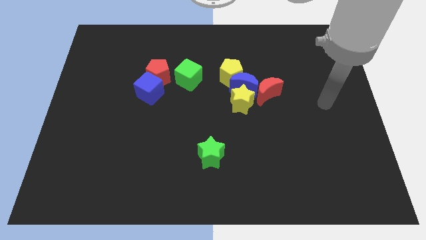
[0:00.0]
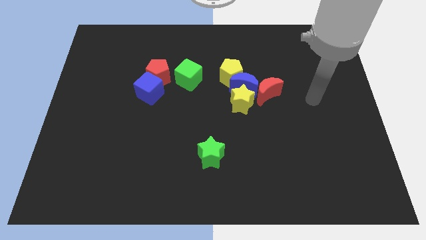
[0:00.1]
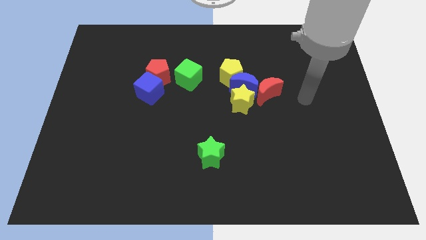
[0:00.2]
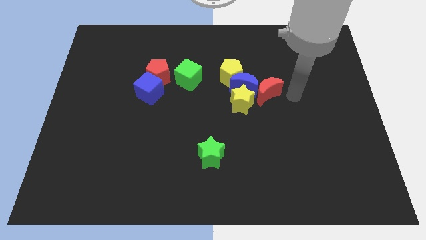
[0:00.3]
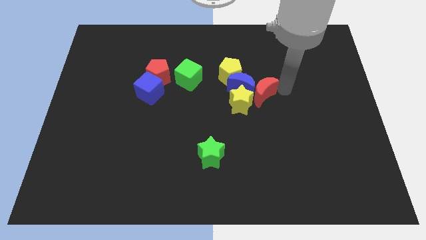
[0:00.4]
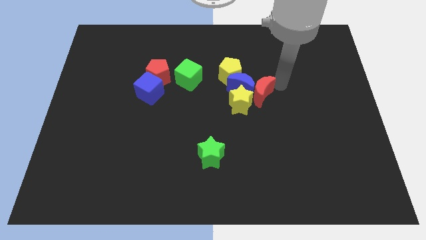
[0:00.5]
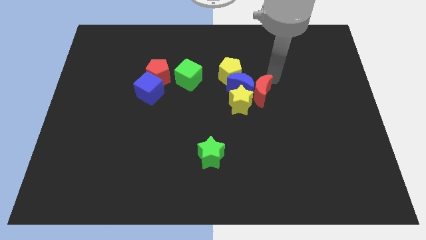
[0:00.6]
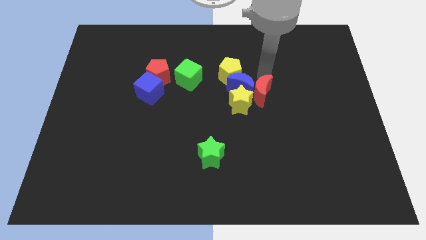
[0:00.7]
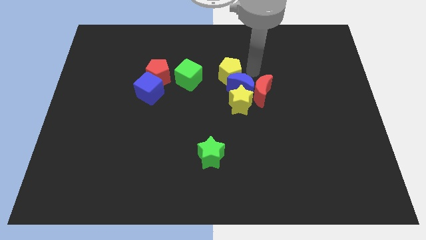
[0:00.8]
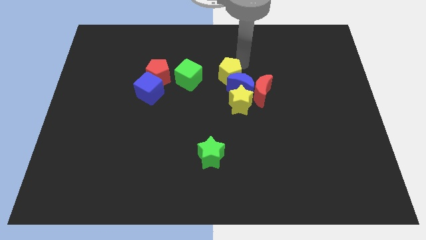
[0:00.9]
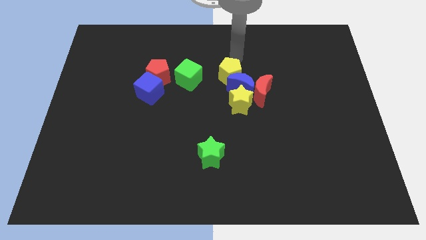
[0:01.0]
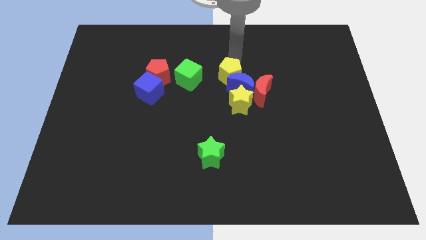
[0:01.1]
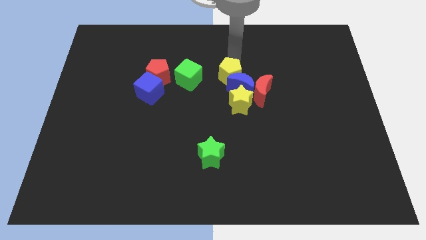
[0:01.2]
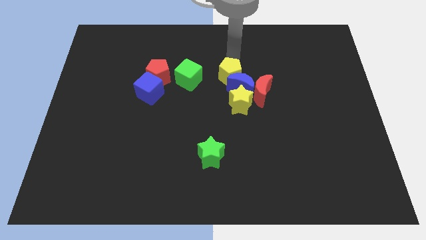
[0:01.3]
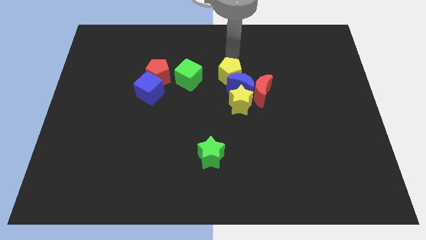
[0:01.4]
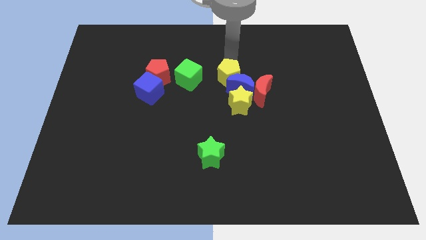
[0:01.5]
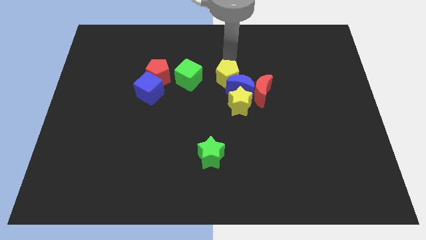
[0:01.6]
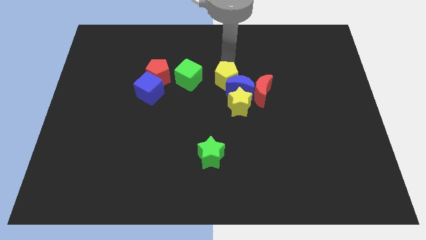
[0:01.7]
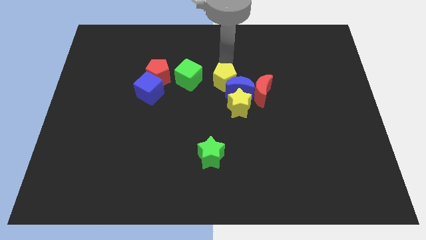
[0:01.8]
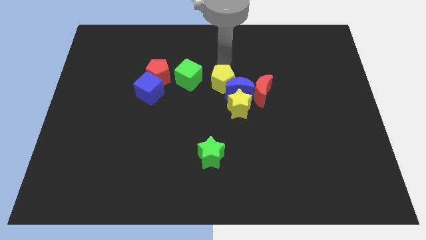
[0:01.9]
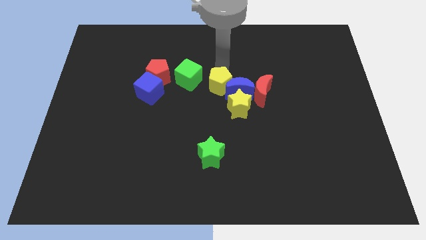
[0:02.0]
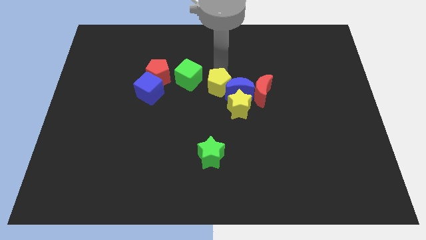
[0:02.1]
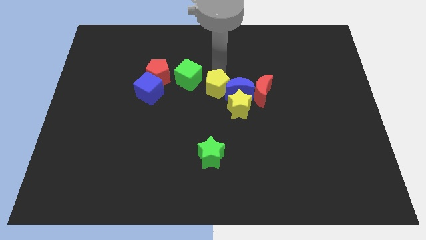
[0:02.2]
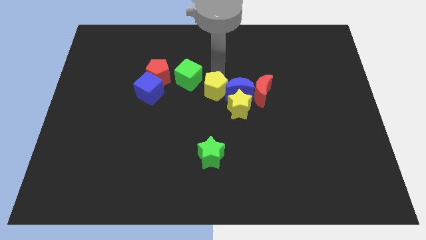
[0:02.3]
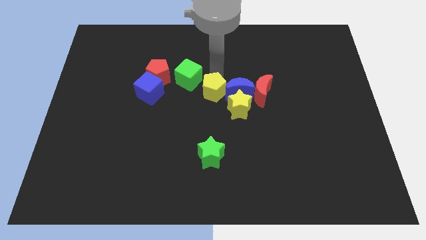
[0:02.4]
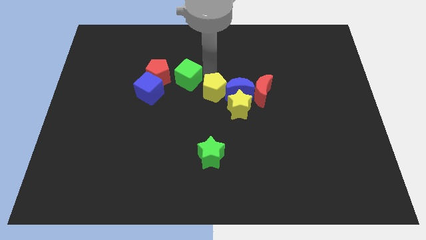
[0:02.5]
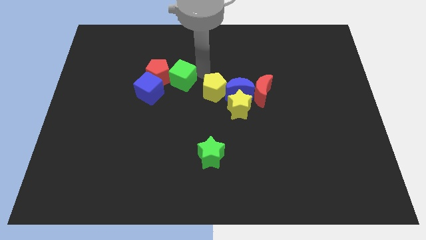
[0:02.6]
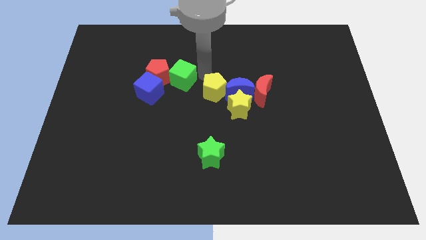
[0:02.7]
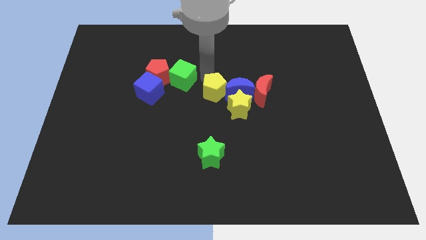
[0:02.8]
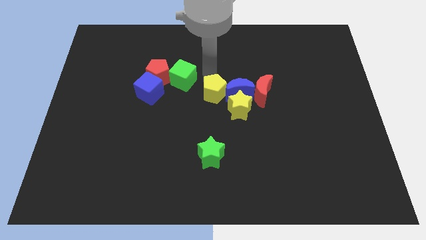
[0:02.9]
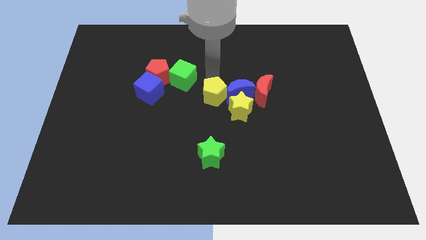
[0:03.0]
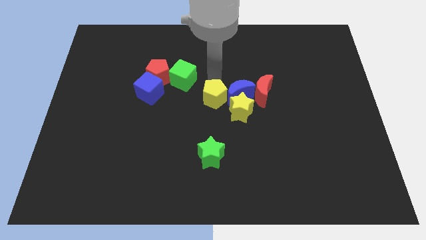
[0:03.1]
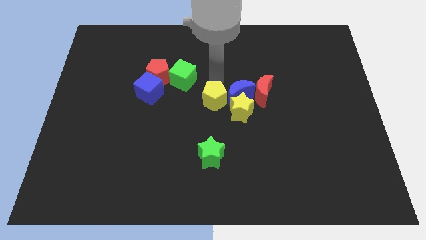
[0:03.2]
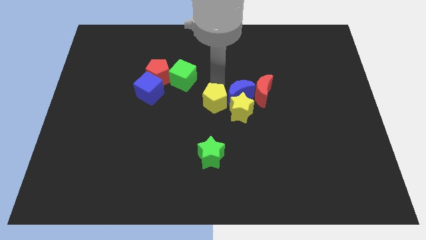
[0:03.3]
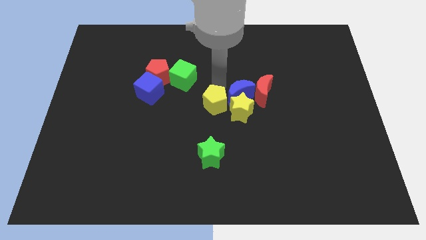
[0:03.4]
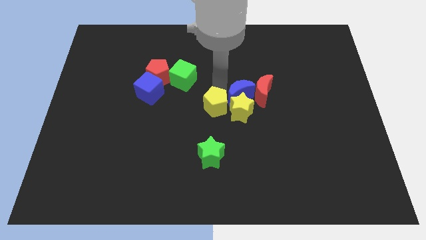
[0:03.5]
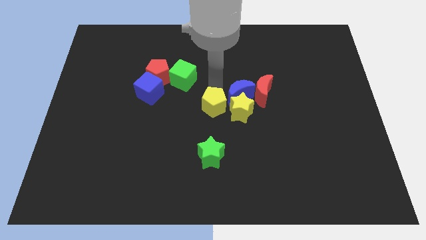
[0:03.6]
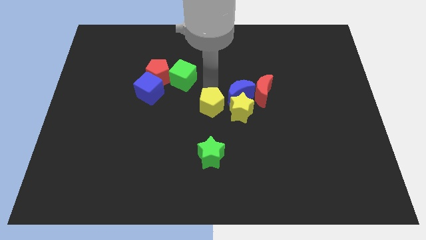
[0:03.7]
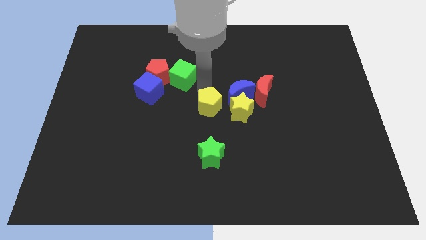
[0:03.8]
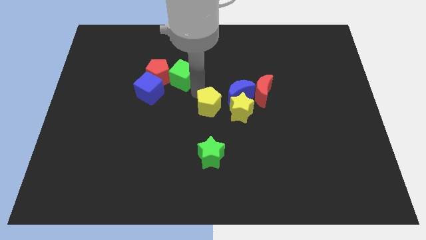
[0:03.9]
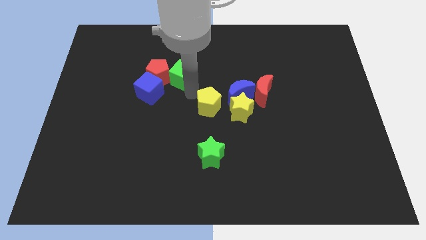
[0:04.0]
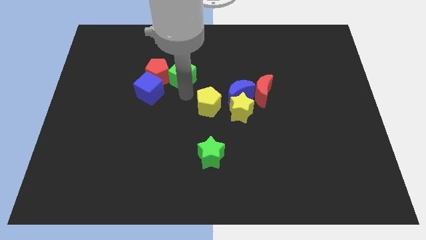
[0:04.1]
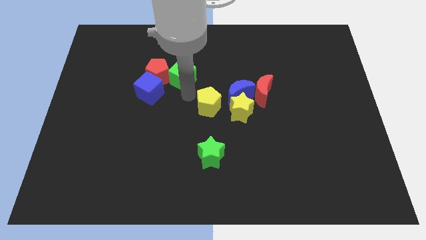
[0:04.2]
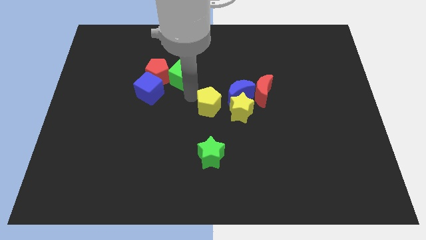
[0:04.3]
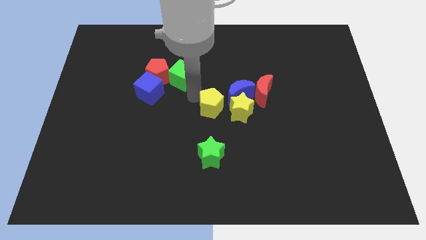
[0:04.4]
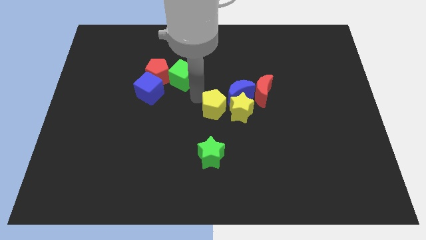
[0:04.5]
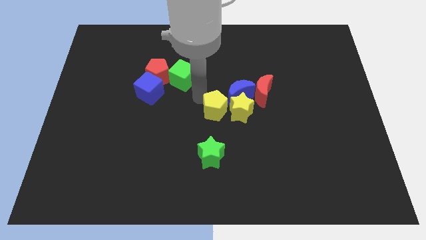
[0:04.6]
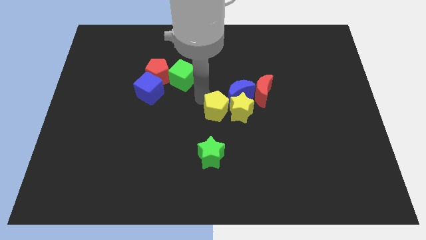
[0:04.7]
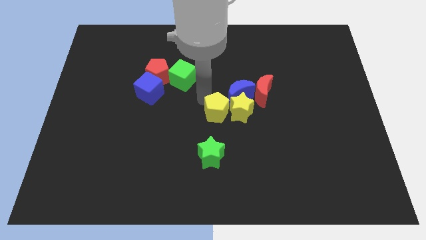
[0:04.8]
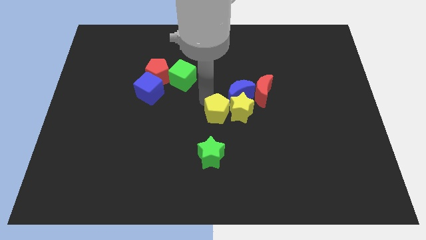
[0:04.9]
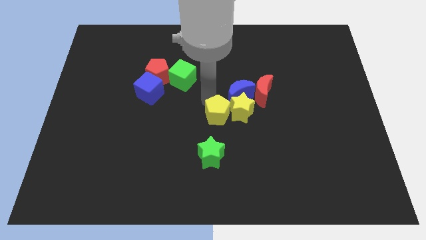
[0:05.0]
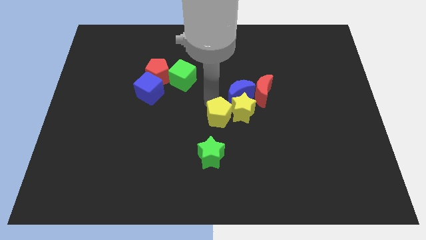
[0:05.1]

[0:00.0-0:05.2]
slide the yellow pentagon below the blue moon

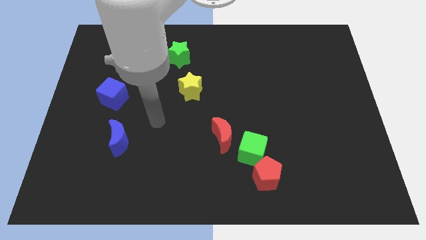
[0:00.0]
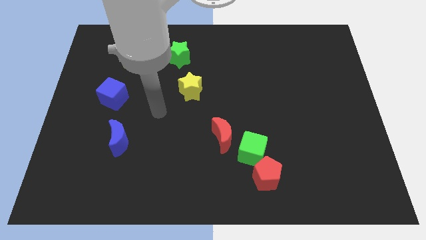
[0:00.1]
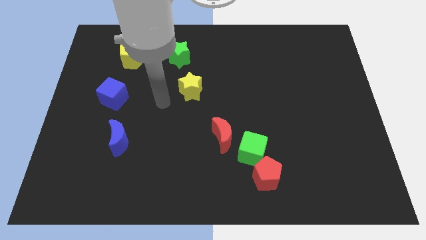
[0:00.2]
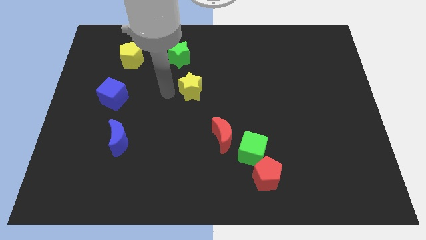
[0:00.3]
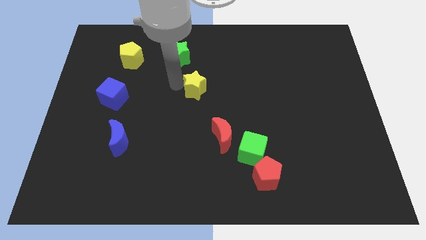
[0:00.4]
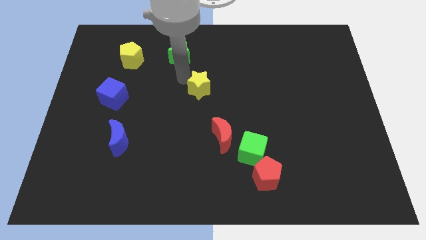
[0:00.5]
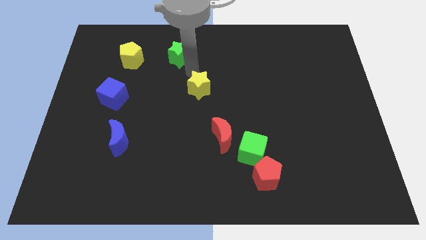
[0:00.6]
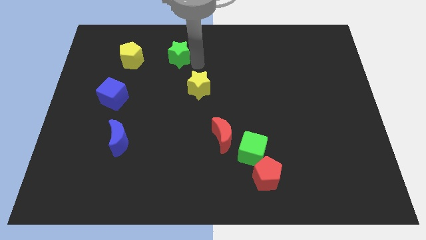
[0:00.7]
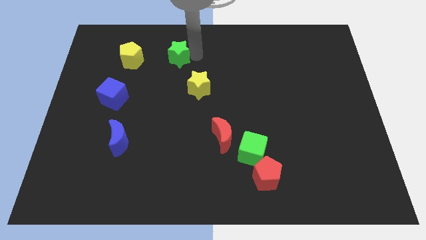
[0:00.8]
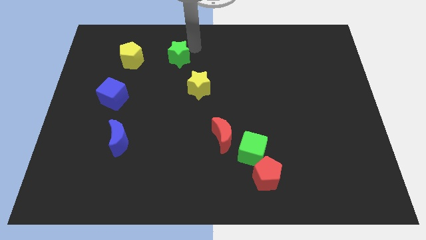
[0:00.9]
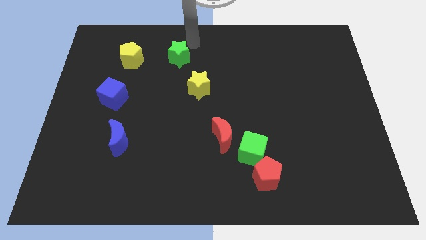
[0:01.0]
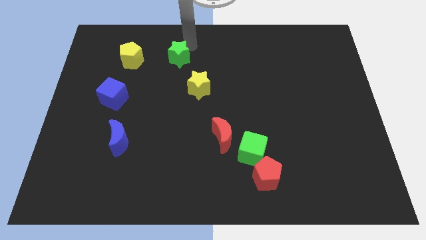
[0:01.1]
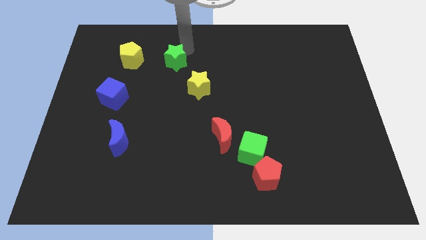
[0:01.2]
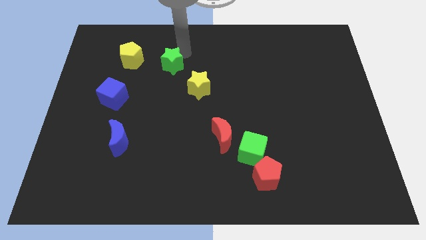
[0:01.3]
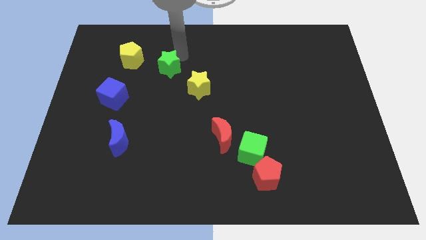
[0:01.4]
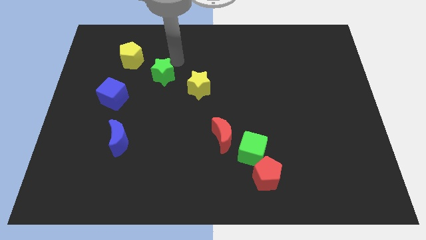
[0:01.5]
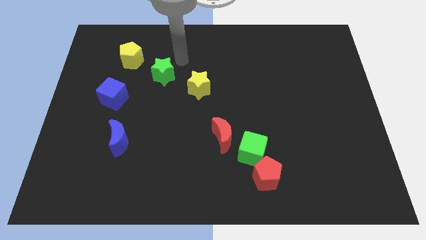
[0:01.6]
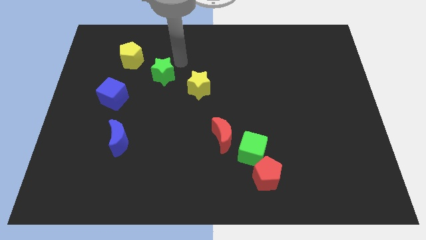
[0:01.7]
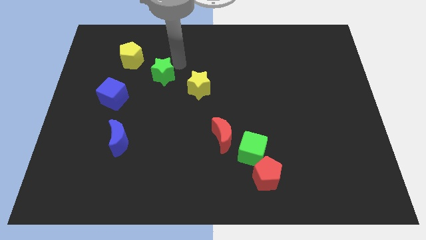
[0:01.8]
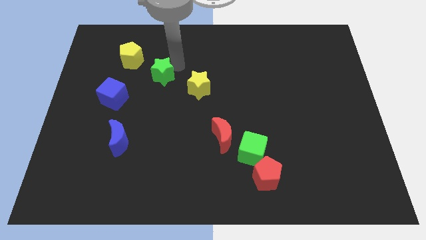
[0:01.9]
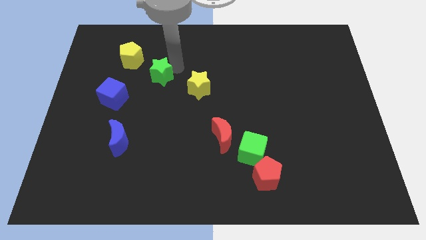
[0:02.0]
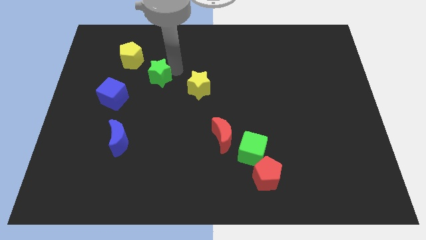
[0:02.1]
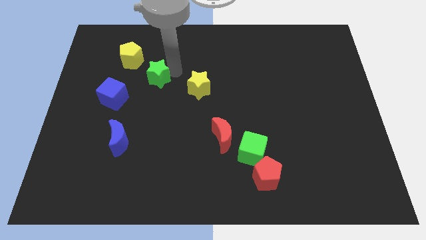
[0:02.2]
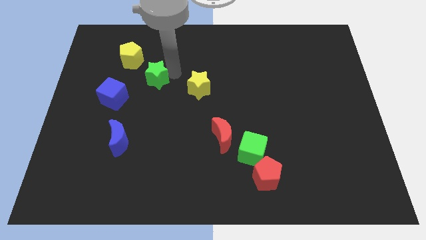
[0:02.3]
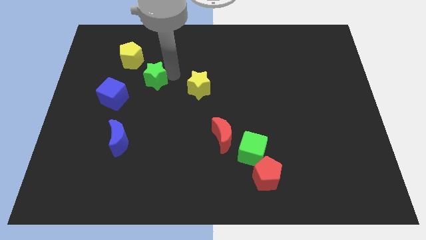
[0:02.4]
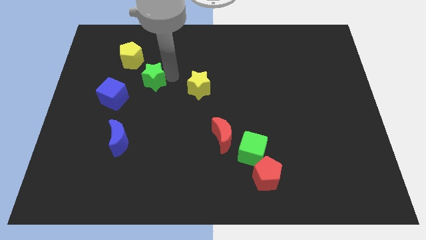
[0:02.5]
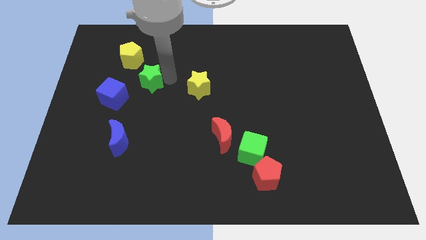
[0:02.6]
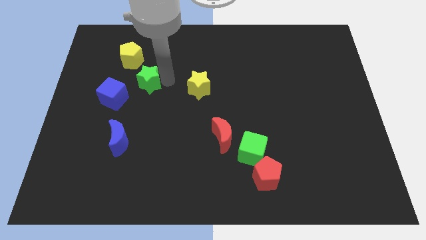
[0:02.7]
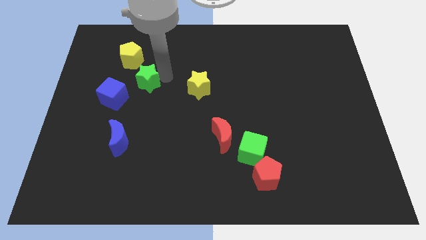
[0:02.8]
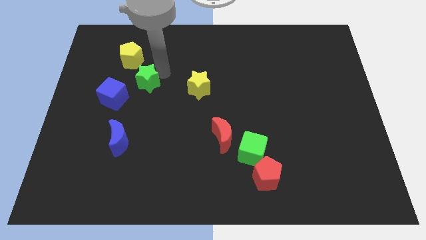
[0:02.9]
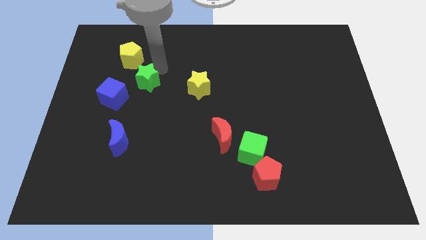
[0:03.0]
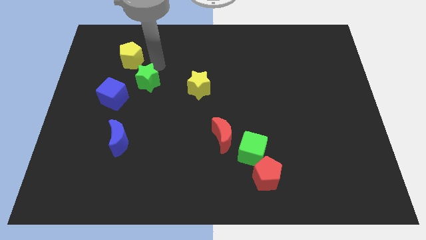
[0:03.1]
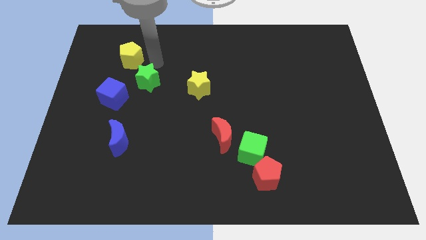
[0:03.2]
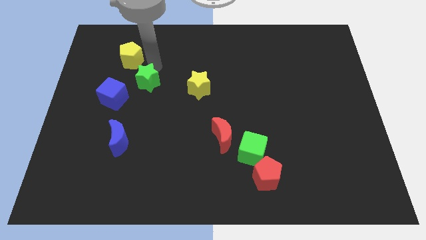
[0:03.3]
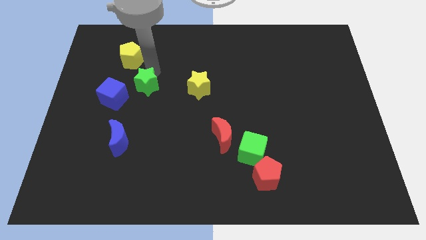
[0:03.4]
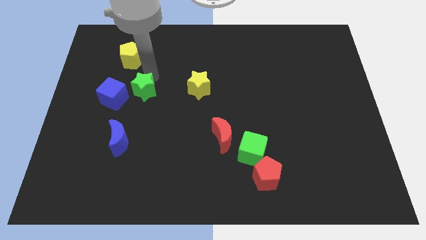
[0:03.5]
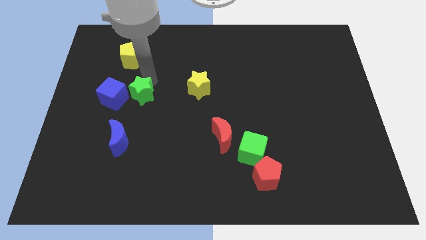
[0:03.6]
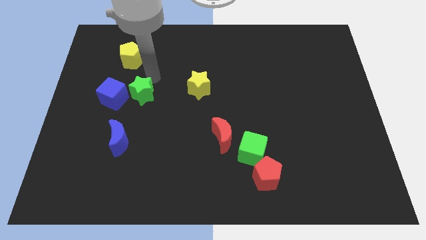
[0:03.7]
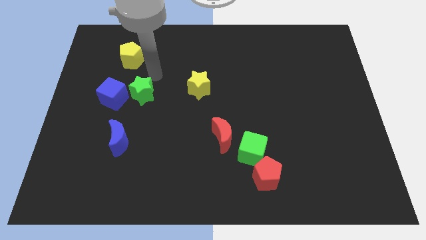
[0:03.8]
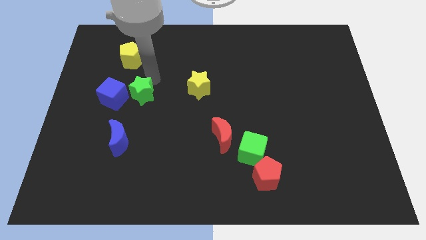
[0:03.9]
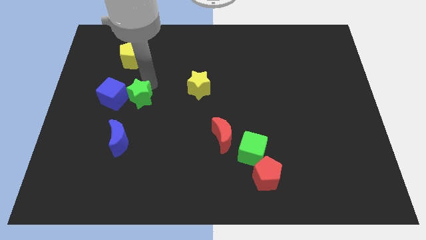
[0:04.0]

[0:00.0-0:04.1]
push the green star to the bottom right side of the blue cube
